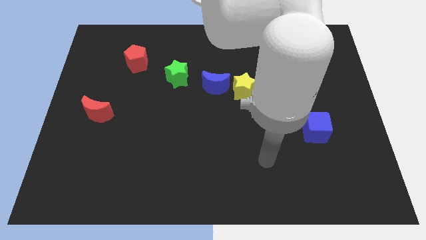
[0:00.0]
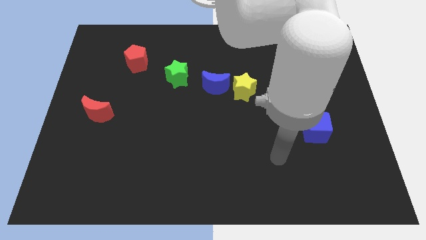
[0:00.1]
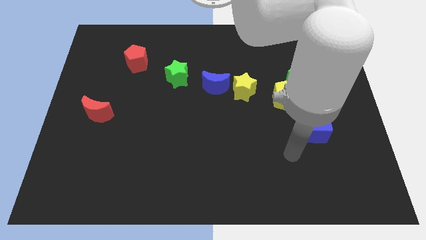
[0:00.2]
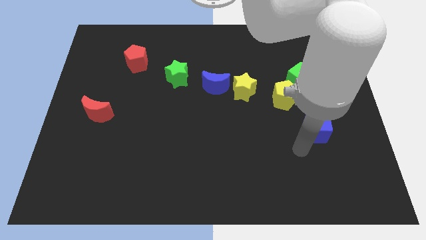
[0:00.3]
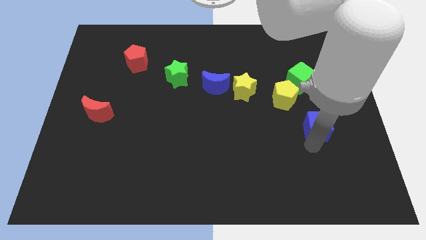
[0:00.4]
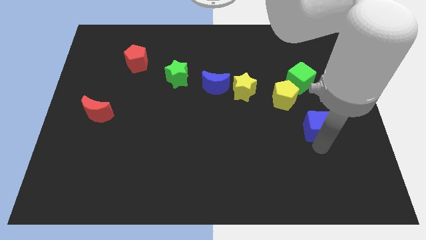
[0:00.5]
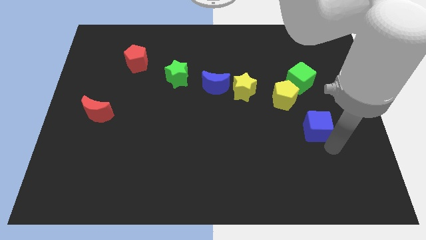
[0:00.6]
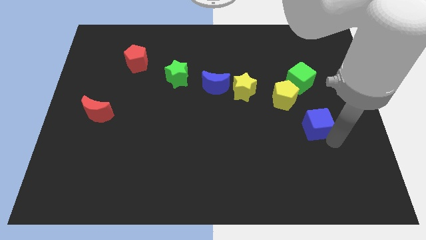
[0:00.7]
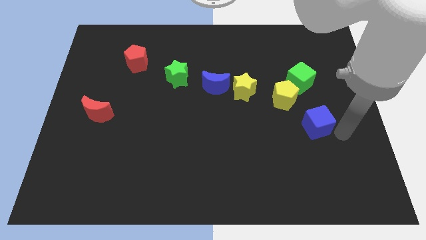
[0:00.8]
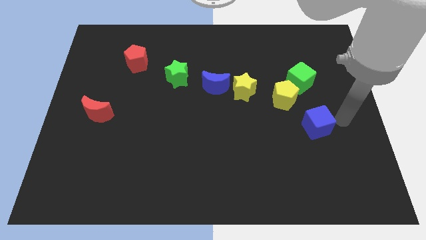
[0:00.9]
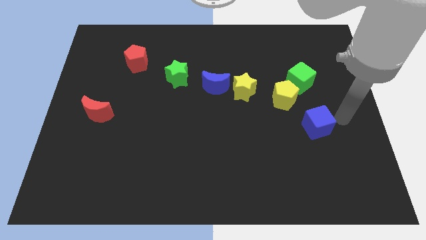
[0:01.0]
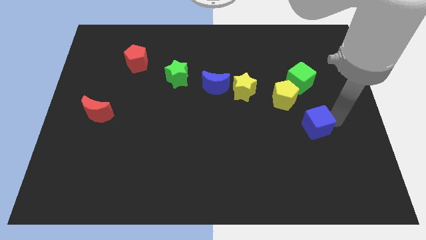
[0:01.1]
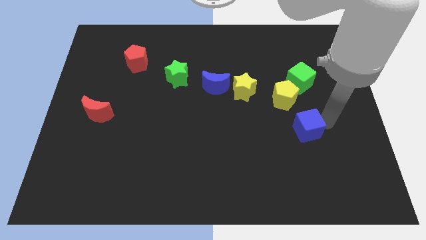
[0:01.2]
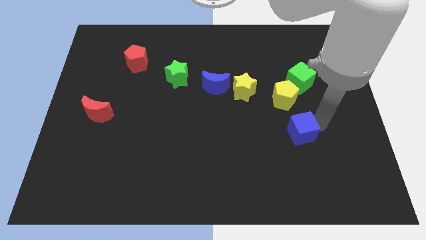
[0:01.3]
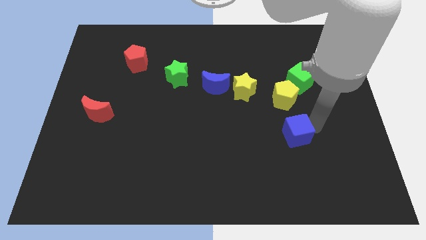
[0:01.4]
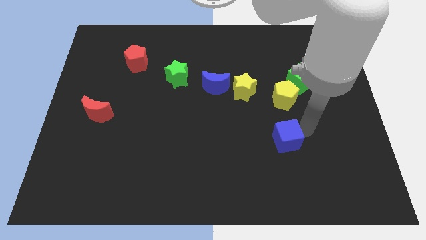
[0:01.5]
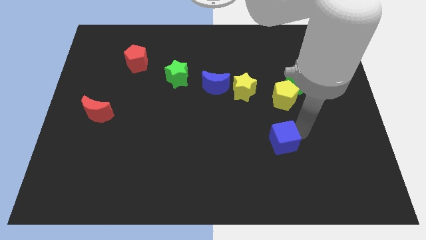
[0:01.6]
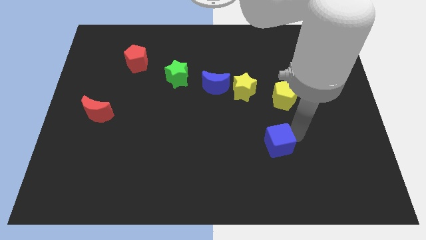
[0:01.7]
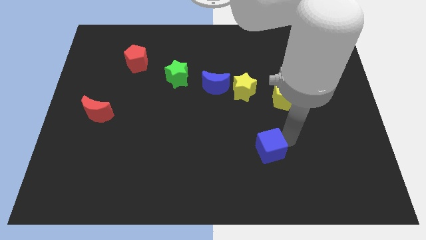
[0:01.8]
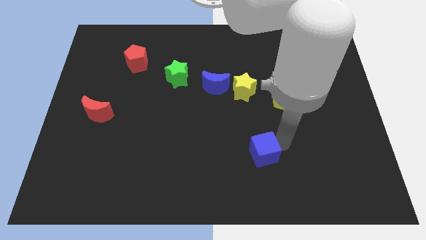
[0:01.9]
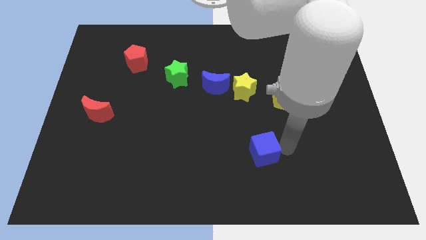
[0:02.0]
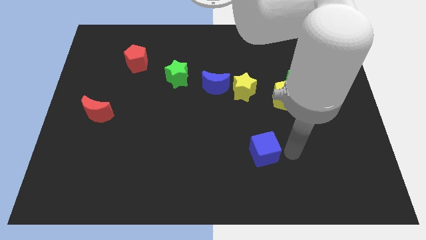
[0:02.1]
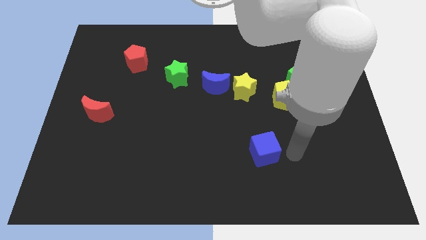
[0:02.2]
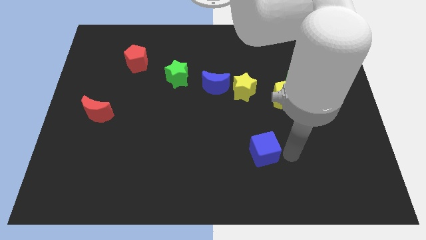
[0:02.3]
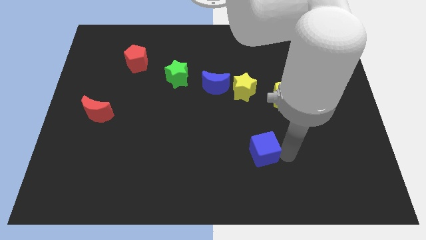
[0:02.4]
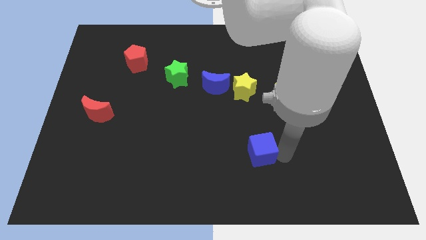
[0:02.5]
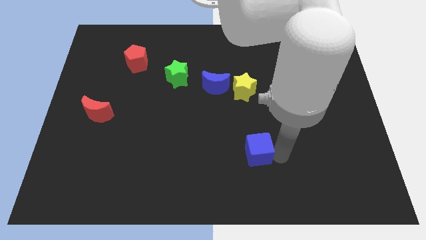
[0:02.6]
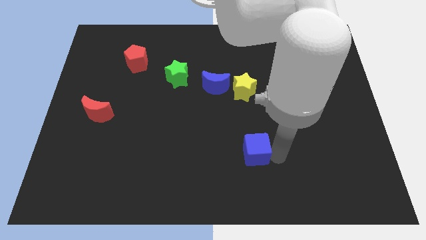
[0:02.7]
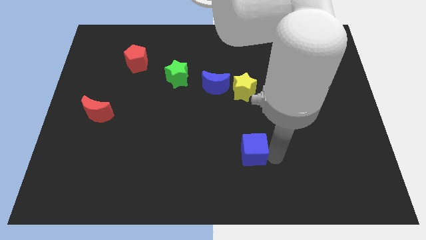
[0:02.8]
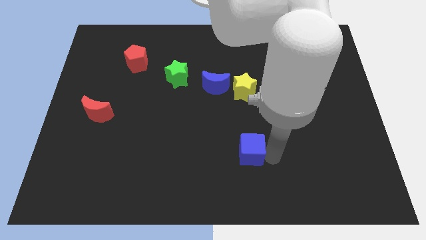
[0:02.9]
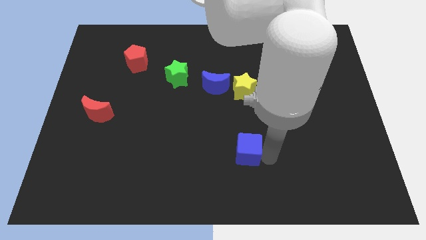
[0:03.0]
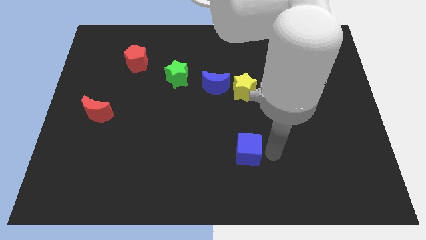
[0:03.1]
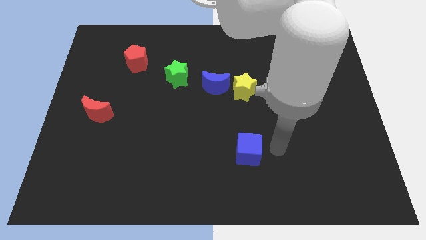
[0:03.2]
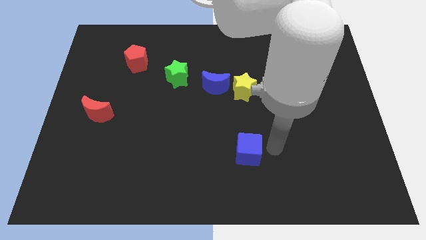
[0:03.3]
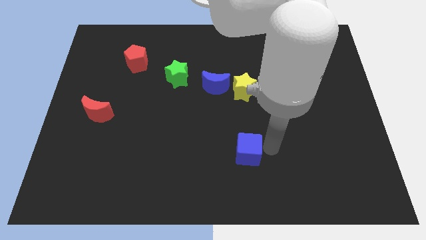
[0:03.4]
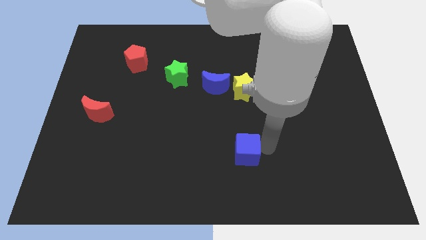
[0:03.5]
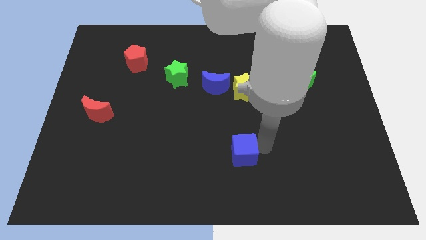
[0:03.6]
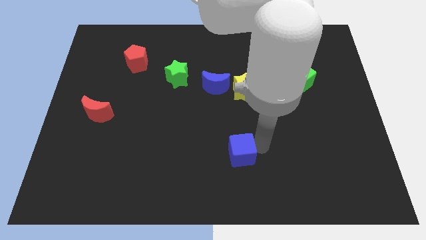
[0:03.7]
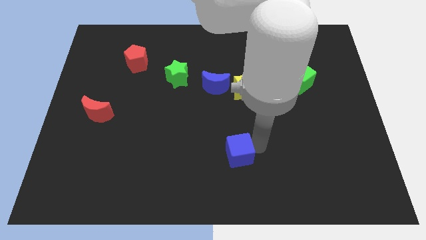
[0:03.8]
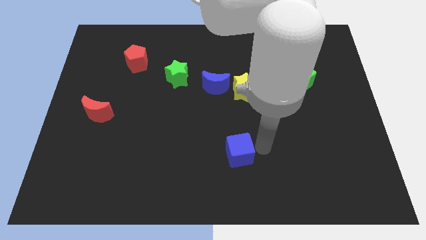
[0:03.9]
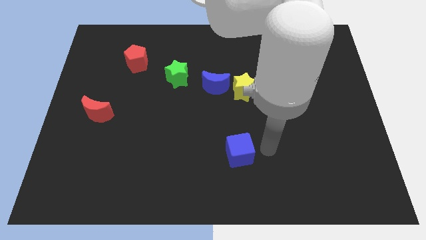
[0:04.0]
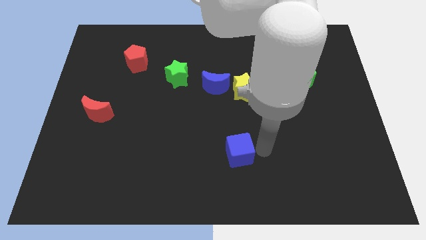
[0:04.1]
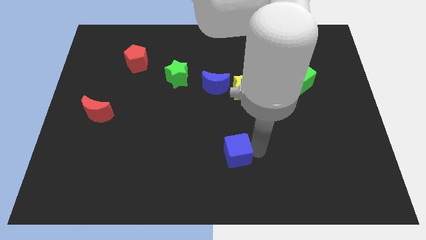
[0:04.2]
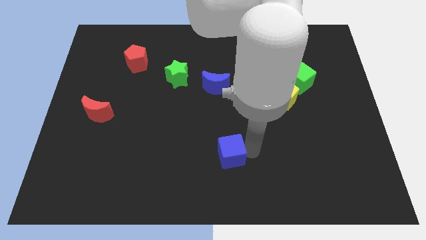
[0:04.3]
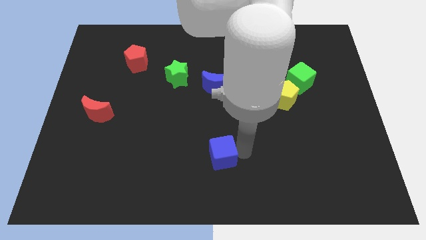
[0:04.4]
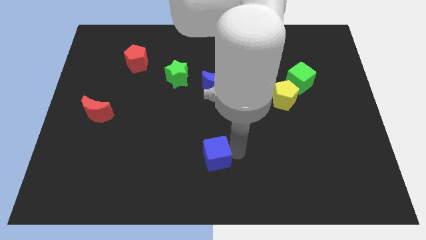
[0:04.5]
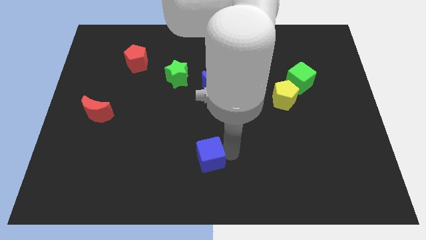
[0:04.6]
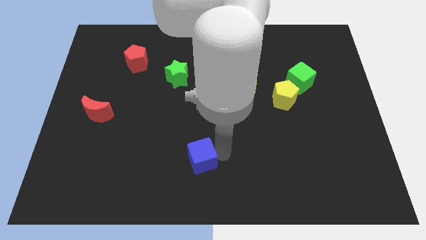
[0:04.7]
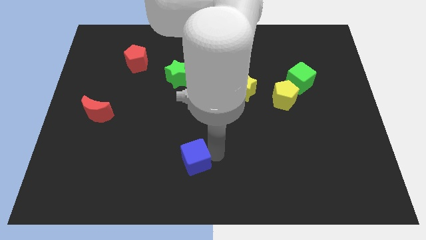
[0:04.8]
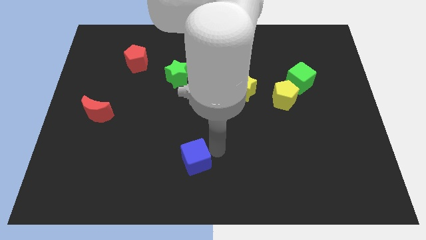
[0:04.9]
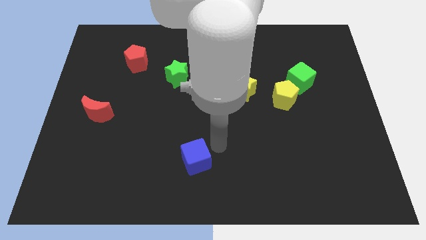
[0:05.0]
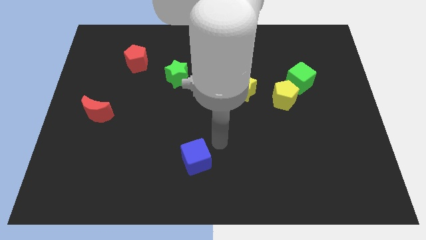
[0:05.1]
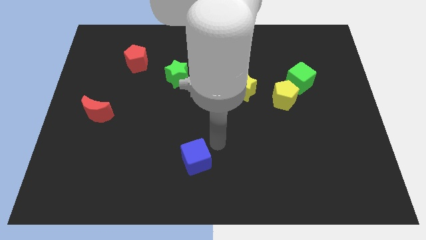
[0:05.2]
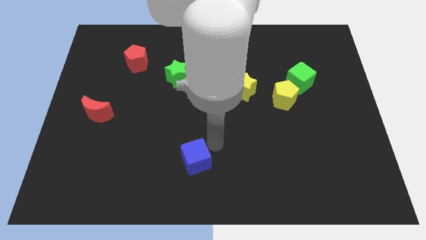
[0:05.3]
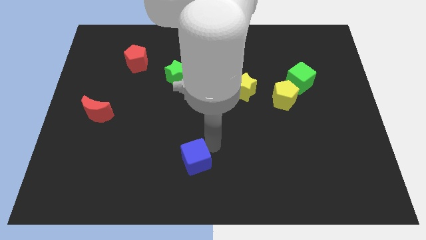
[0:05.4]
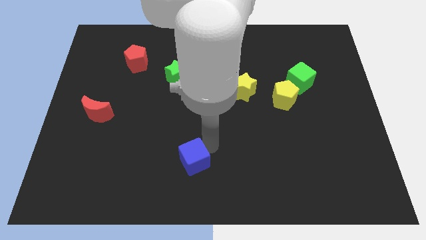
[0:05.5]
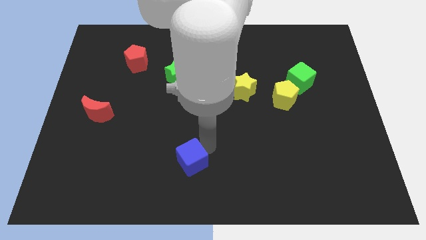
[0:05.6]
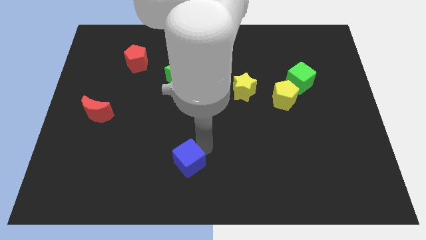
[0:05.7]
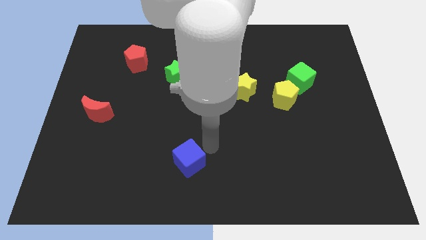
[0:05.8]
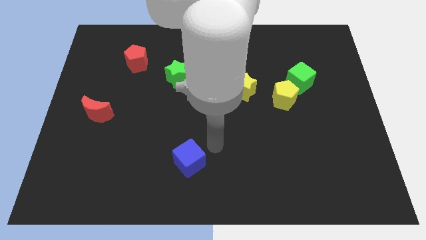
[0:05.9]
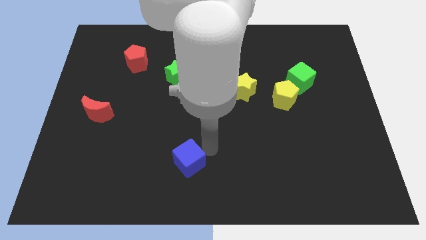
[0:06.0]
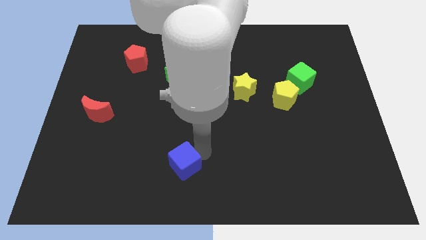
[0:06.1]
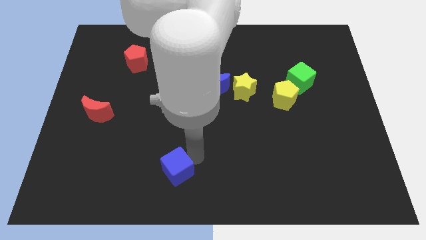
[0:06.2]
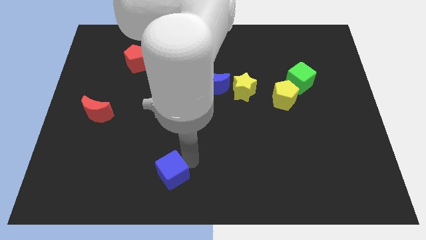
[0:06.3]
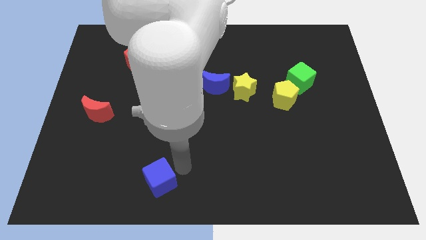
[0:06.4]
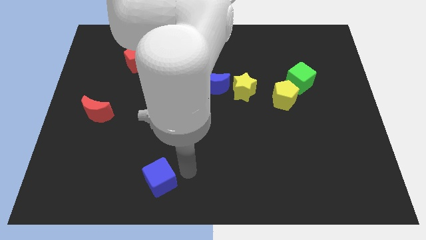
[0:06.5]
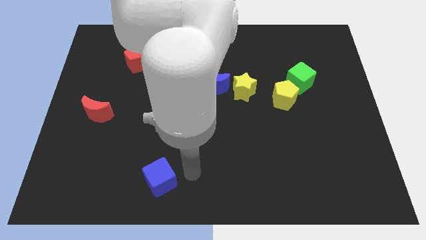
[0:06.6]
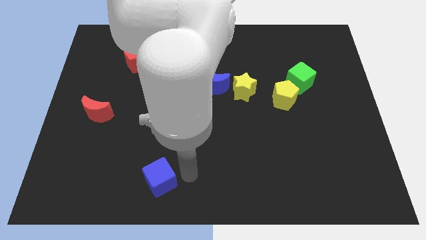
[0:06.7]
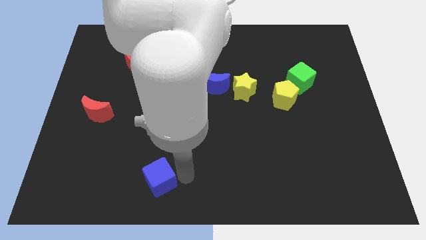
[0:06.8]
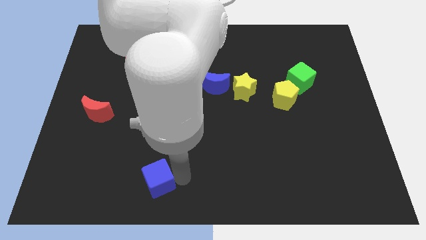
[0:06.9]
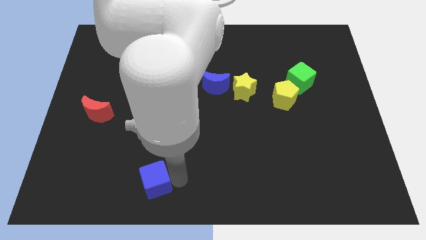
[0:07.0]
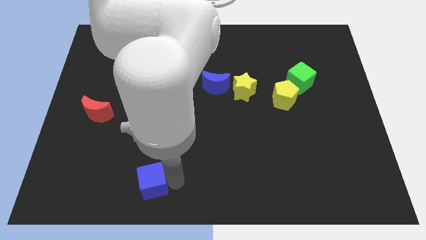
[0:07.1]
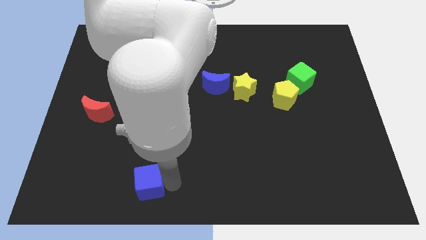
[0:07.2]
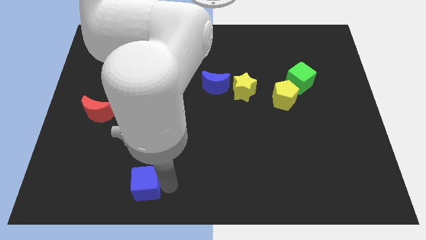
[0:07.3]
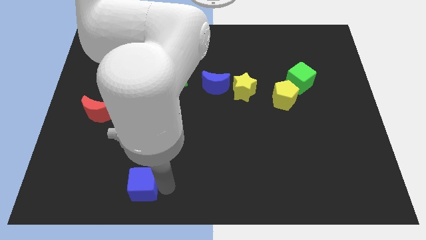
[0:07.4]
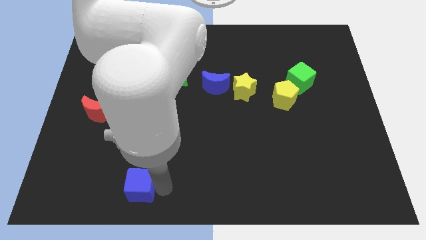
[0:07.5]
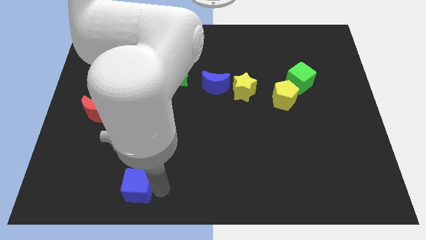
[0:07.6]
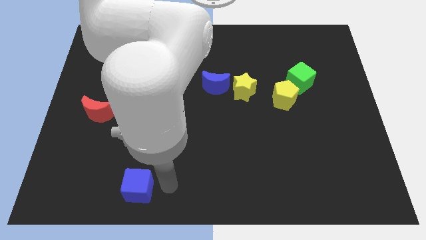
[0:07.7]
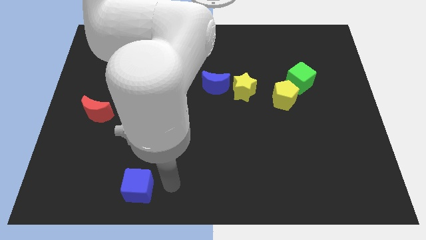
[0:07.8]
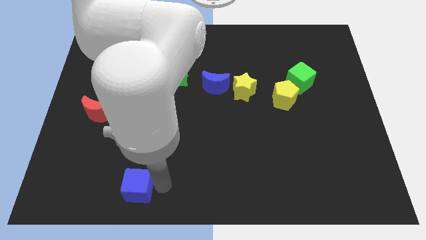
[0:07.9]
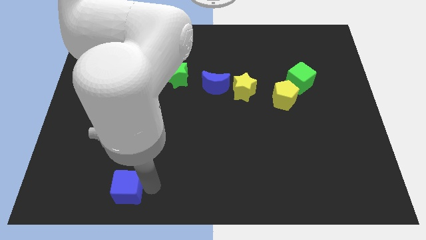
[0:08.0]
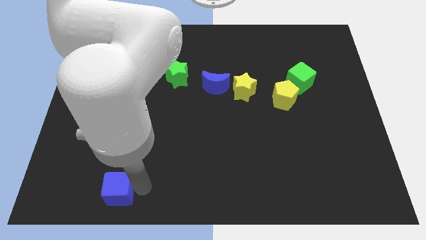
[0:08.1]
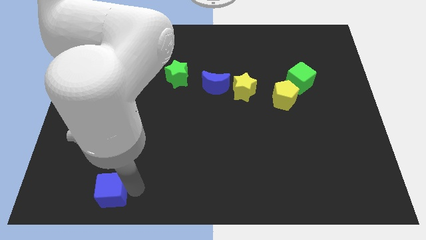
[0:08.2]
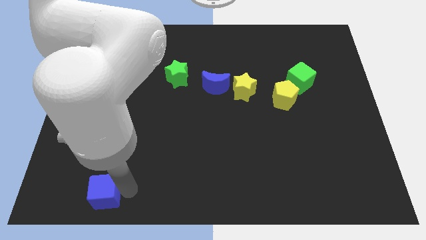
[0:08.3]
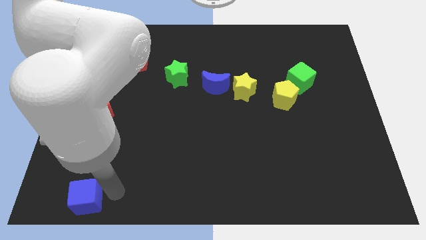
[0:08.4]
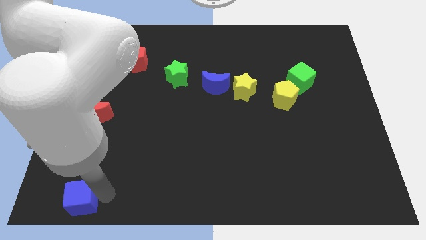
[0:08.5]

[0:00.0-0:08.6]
put the blue cube to the bottom left of the board
